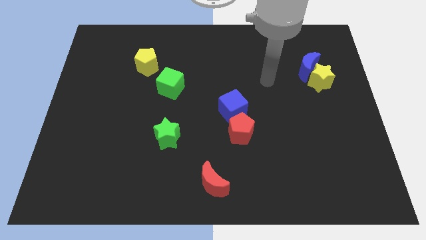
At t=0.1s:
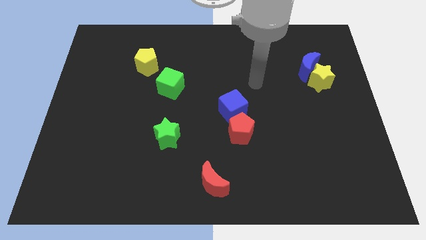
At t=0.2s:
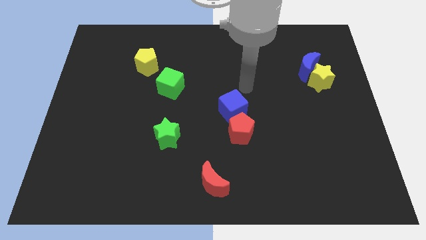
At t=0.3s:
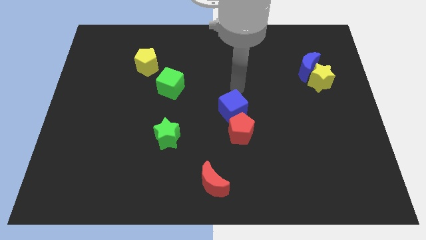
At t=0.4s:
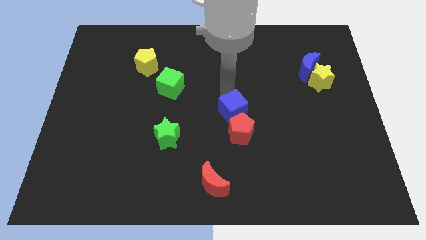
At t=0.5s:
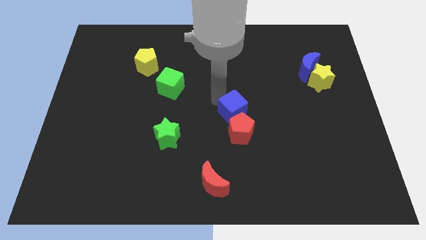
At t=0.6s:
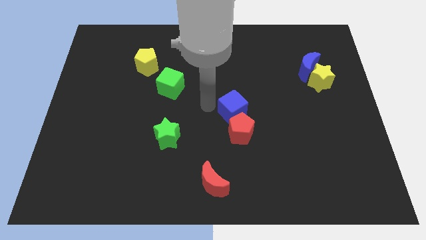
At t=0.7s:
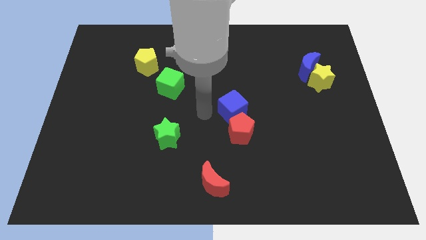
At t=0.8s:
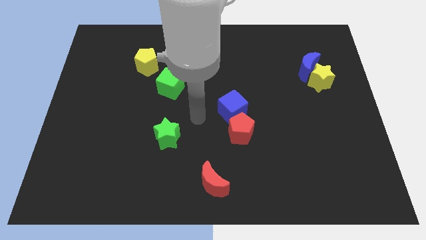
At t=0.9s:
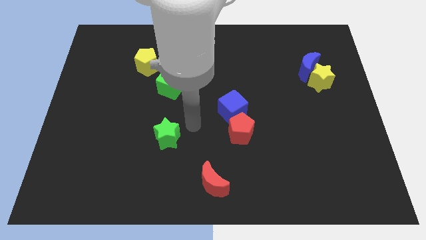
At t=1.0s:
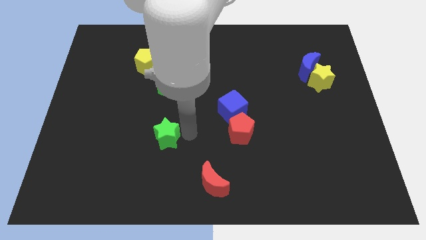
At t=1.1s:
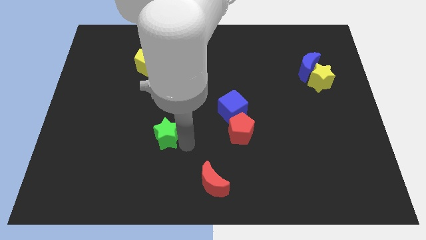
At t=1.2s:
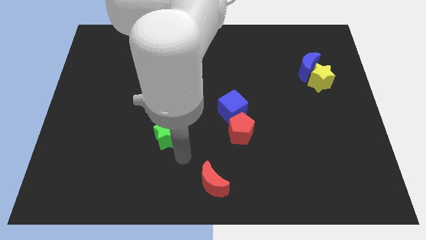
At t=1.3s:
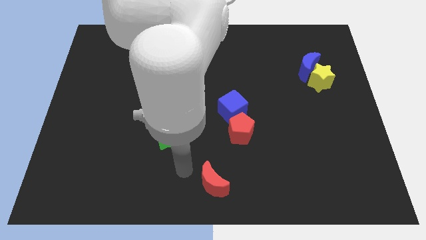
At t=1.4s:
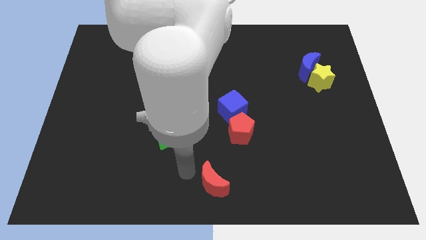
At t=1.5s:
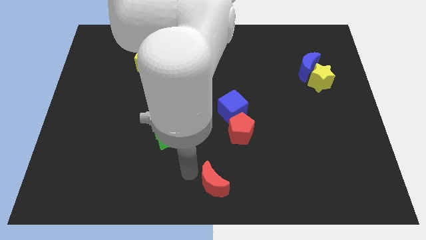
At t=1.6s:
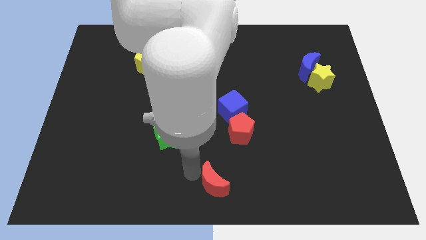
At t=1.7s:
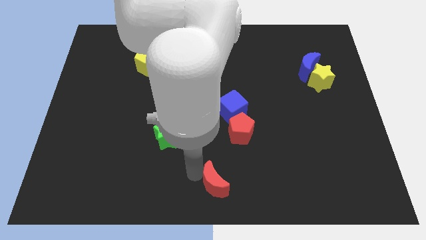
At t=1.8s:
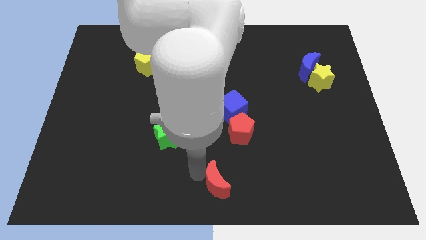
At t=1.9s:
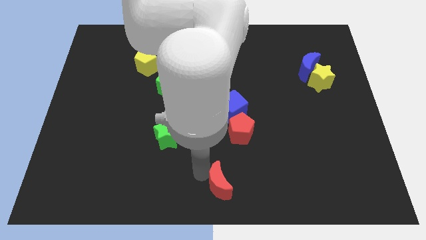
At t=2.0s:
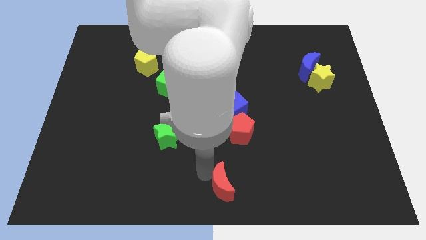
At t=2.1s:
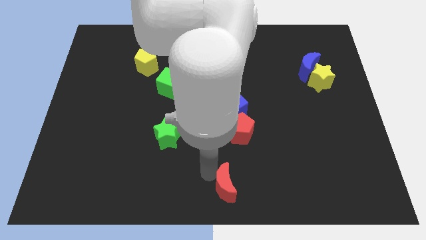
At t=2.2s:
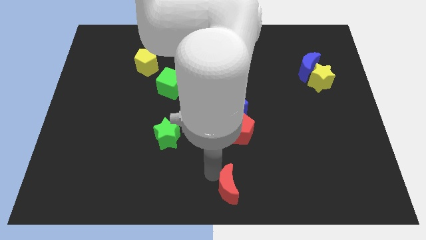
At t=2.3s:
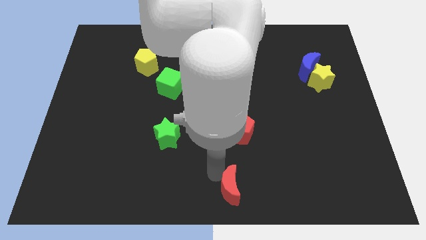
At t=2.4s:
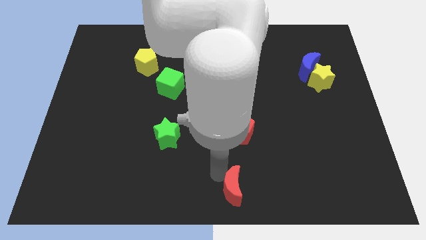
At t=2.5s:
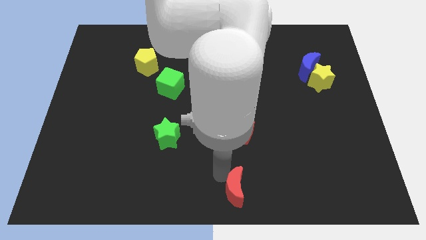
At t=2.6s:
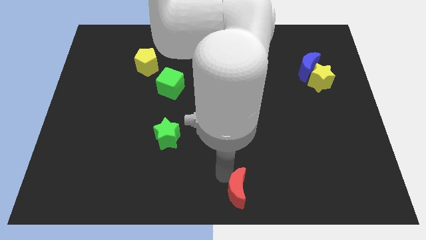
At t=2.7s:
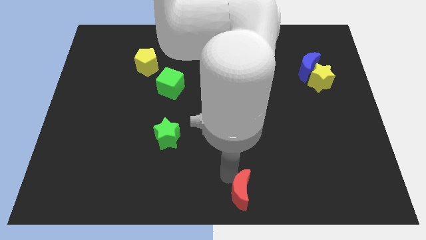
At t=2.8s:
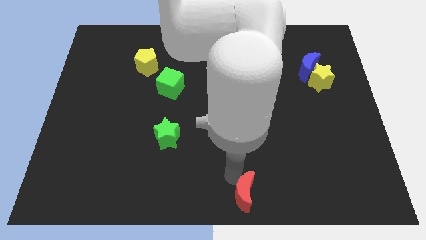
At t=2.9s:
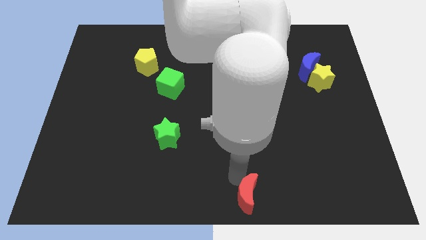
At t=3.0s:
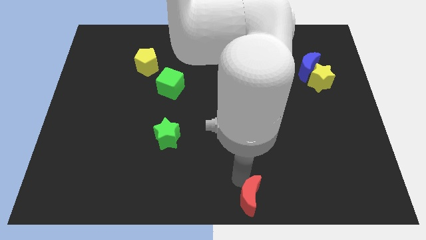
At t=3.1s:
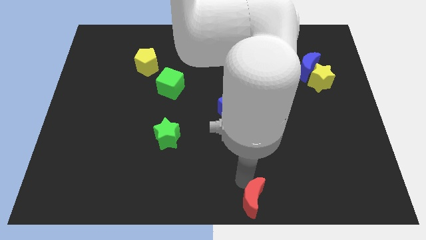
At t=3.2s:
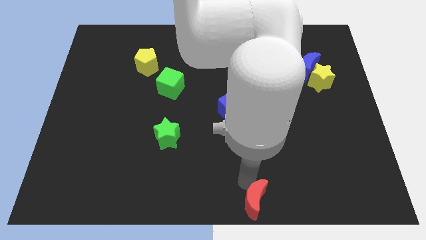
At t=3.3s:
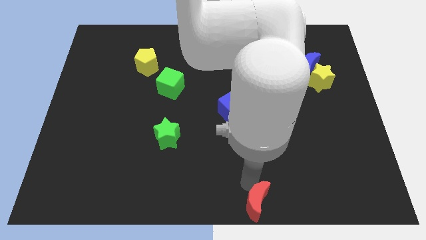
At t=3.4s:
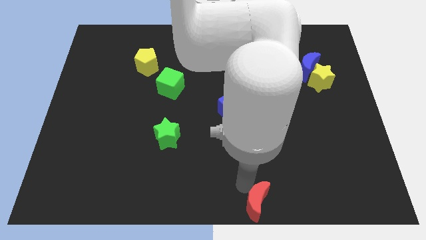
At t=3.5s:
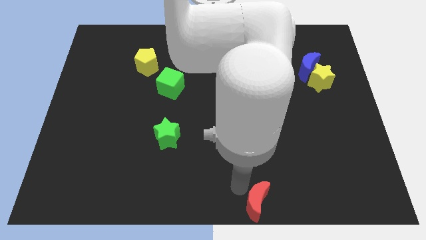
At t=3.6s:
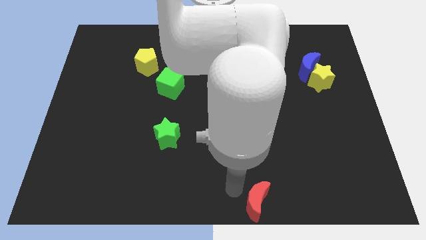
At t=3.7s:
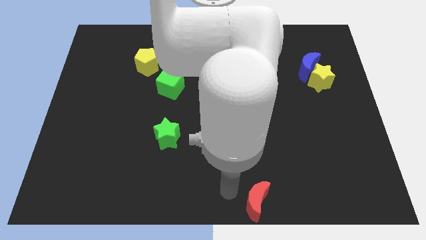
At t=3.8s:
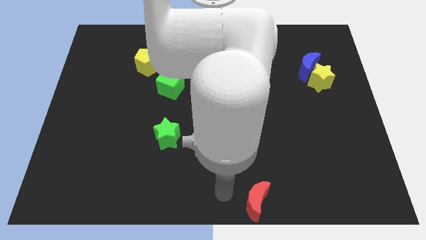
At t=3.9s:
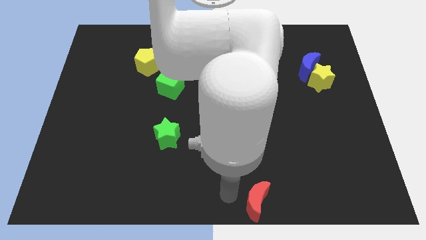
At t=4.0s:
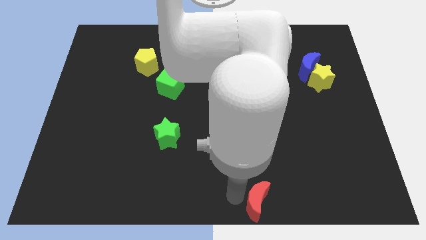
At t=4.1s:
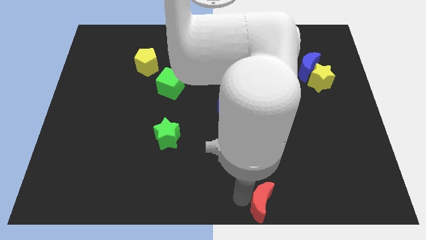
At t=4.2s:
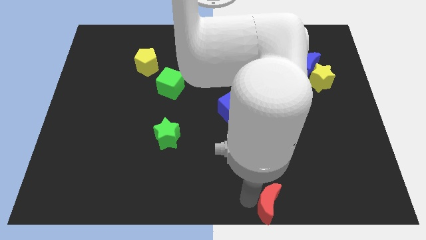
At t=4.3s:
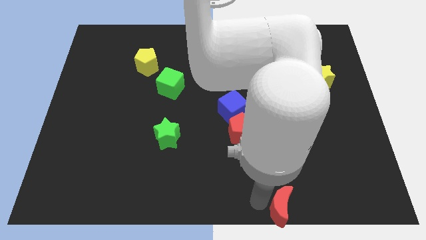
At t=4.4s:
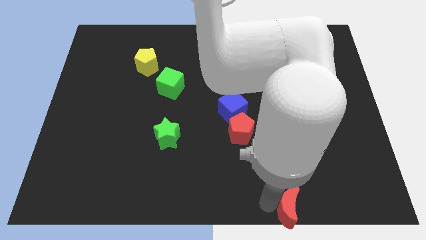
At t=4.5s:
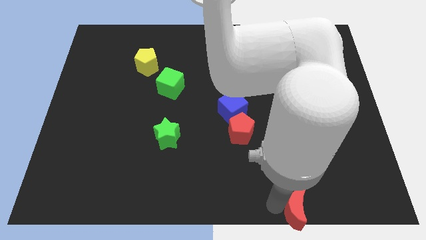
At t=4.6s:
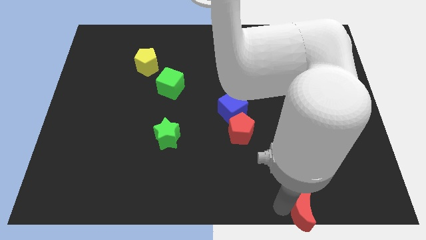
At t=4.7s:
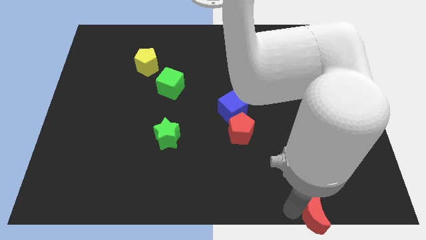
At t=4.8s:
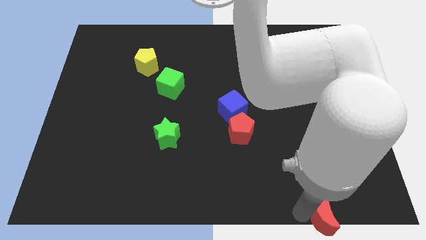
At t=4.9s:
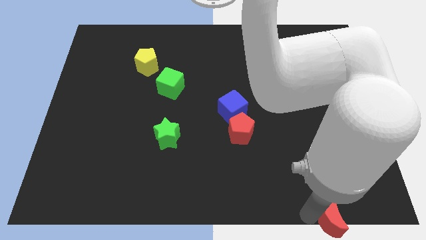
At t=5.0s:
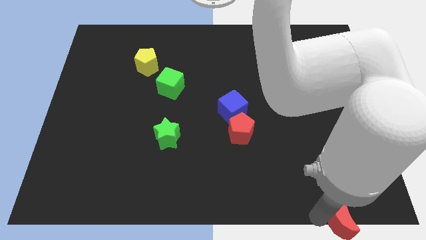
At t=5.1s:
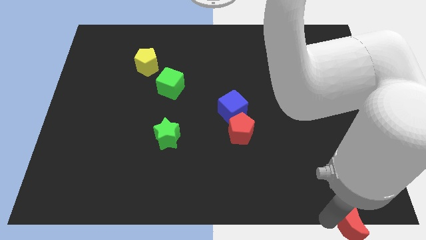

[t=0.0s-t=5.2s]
move the red moon to the bottom right of the board

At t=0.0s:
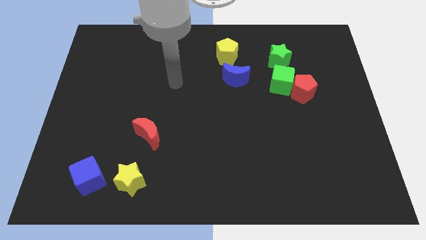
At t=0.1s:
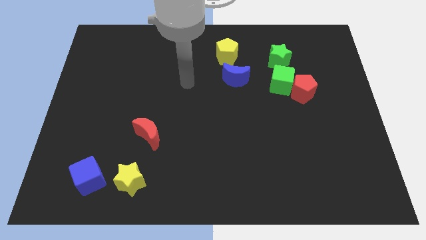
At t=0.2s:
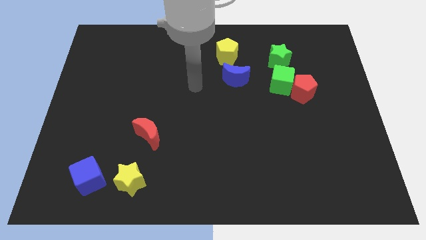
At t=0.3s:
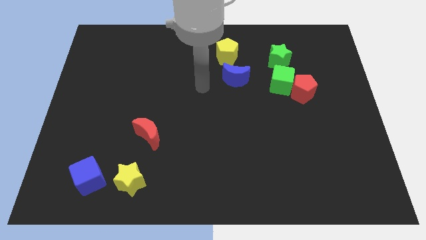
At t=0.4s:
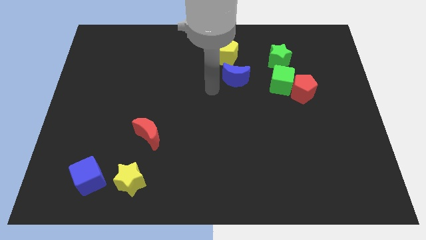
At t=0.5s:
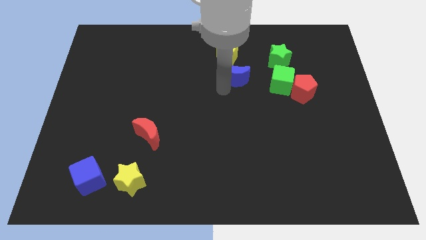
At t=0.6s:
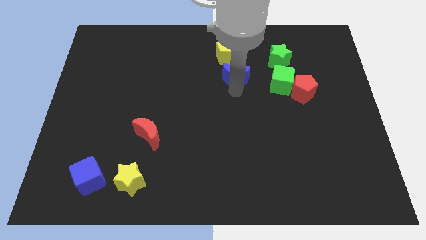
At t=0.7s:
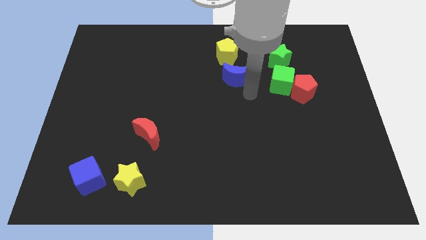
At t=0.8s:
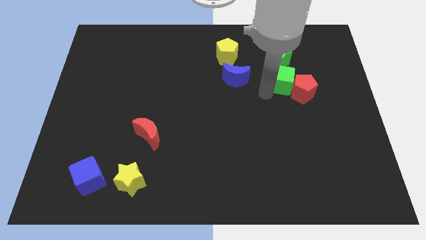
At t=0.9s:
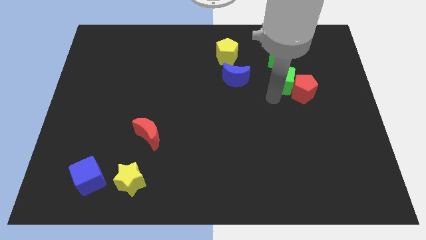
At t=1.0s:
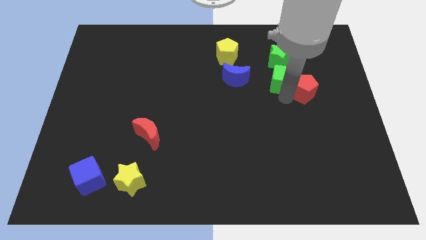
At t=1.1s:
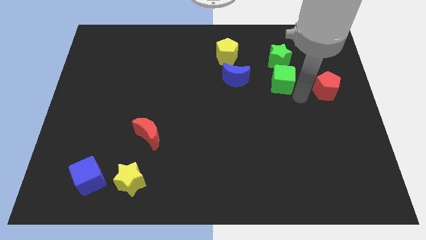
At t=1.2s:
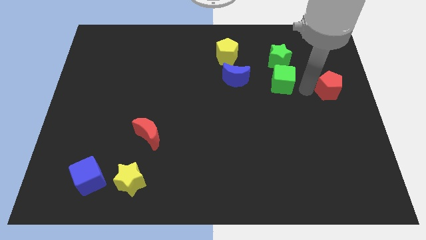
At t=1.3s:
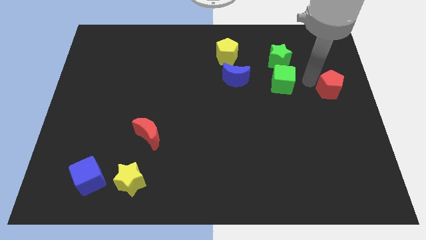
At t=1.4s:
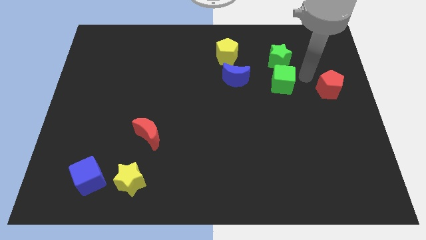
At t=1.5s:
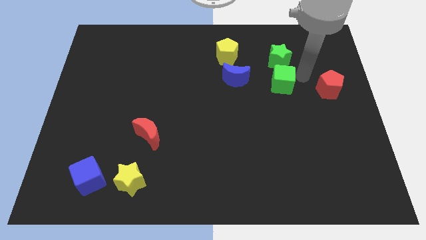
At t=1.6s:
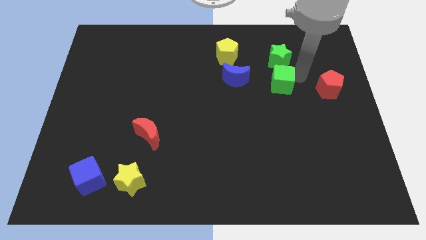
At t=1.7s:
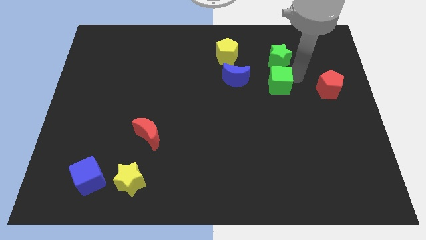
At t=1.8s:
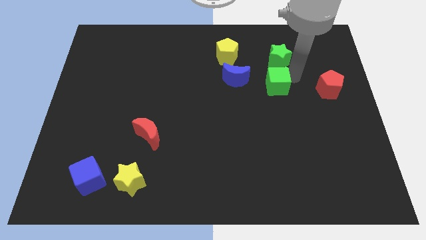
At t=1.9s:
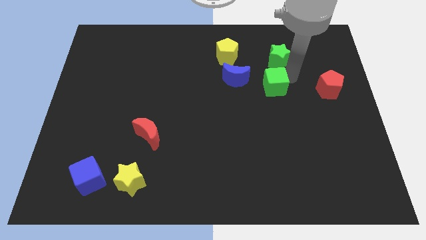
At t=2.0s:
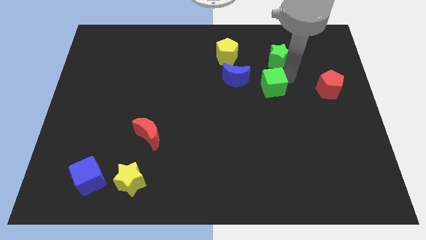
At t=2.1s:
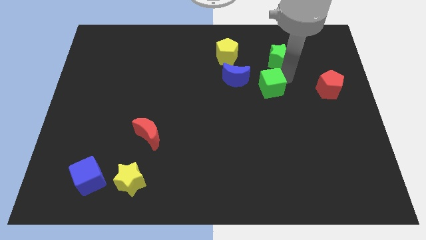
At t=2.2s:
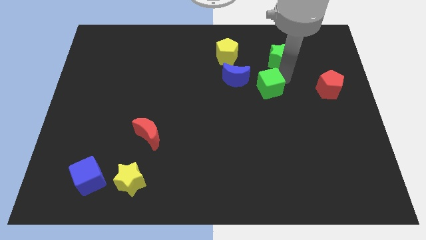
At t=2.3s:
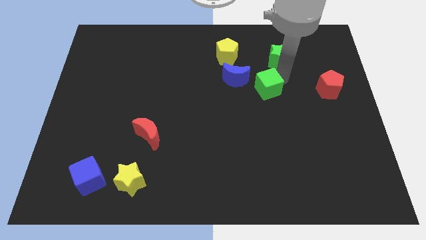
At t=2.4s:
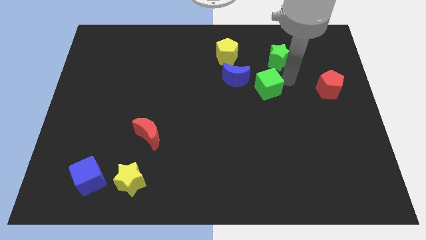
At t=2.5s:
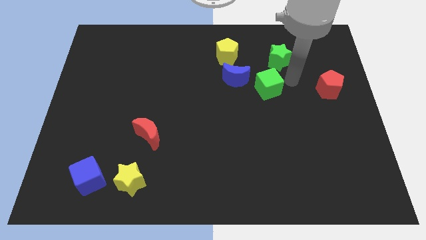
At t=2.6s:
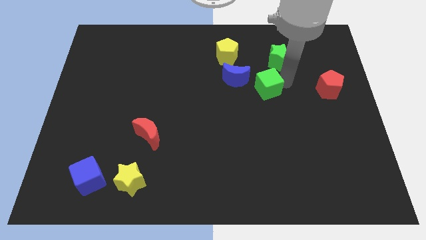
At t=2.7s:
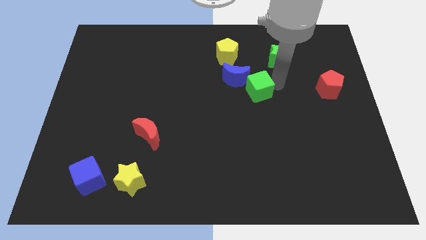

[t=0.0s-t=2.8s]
put the green cube to the center of the board

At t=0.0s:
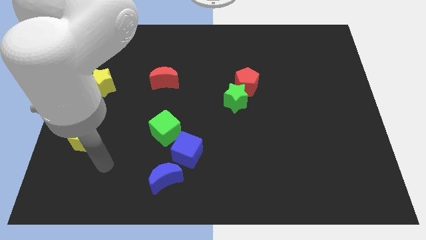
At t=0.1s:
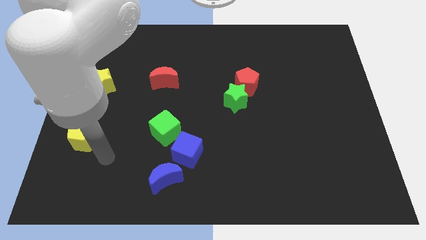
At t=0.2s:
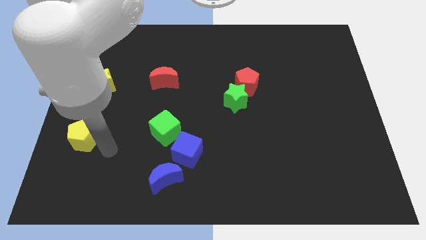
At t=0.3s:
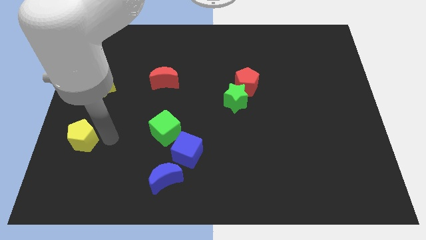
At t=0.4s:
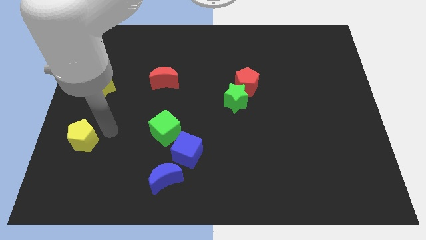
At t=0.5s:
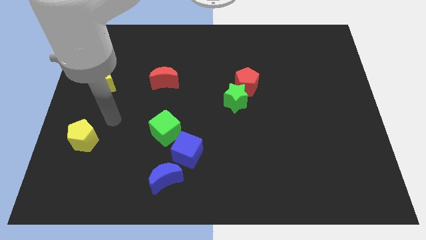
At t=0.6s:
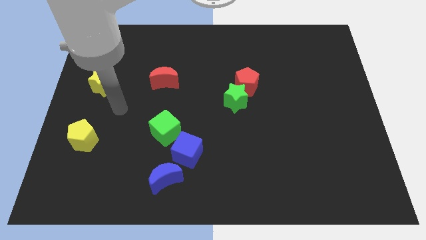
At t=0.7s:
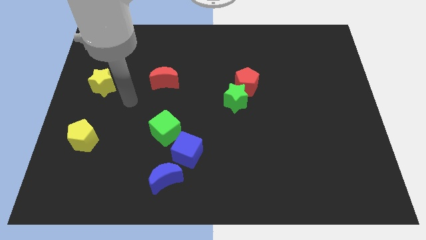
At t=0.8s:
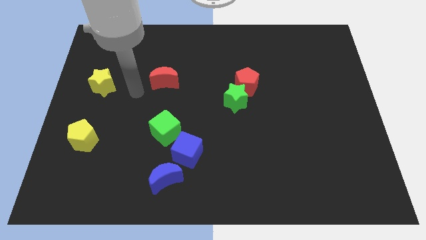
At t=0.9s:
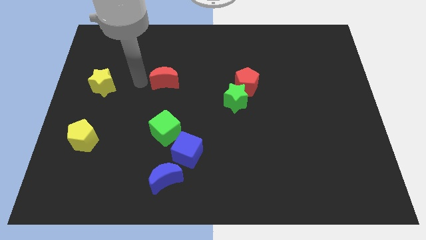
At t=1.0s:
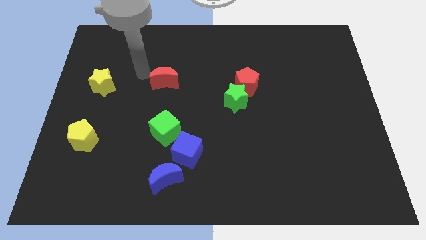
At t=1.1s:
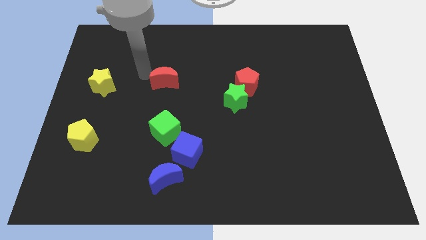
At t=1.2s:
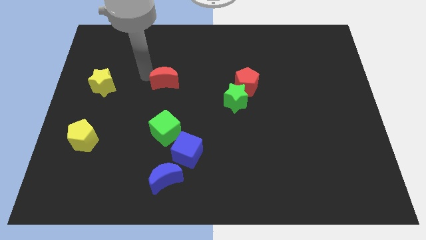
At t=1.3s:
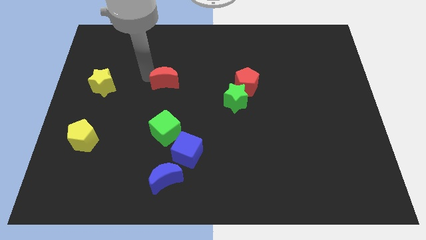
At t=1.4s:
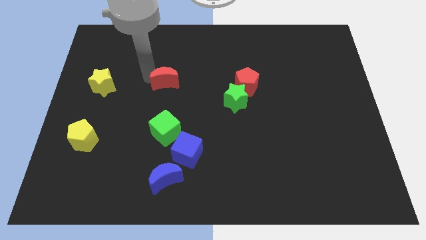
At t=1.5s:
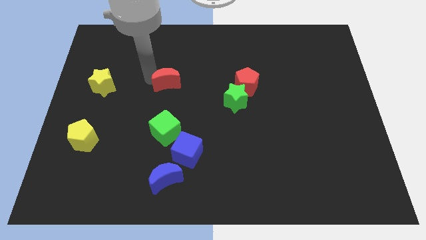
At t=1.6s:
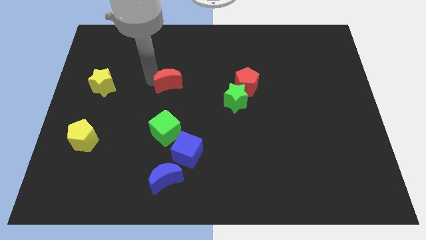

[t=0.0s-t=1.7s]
slide the red moon to the center
